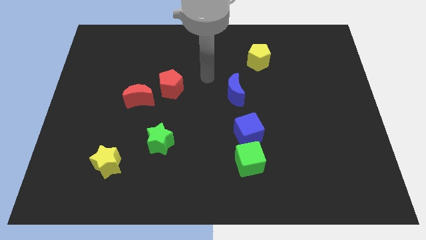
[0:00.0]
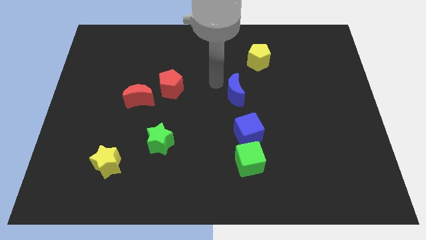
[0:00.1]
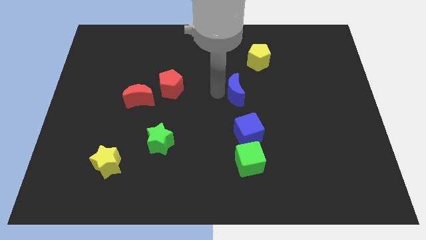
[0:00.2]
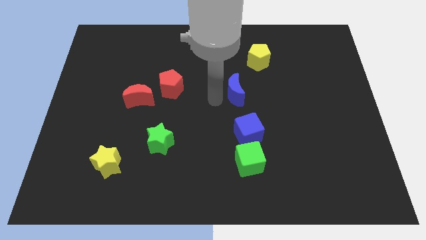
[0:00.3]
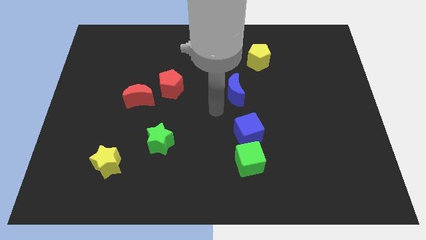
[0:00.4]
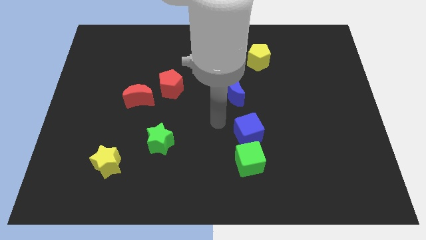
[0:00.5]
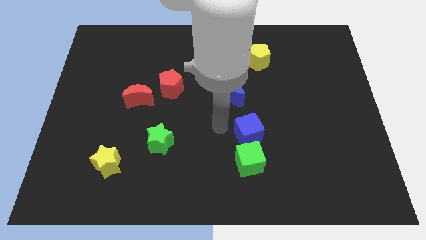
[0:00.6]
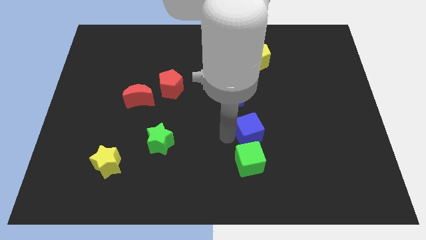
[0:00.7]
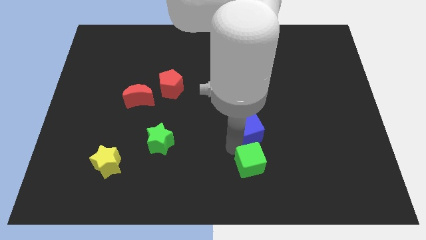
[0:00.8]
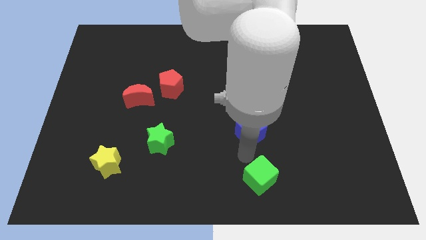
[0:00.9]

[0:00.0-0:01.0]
move the blue cube away from the green cube

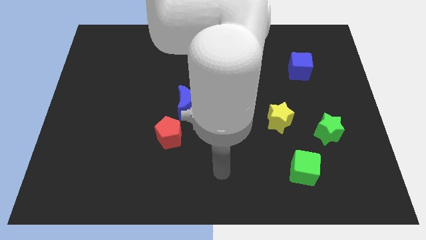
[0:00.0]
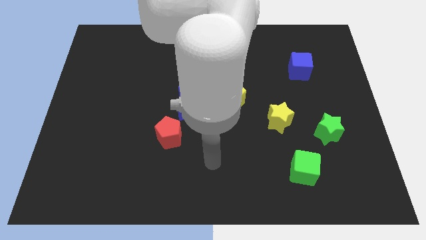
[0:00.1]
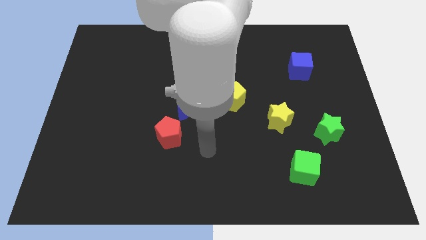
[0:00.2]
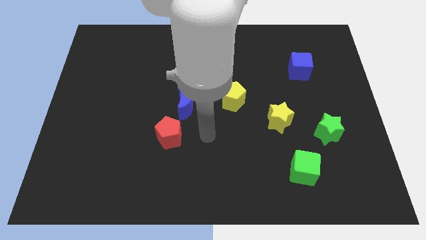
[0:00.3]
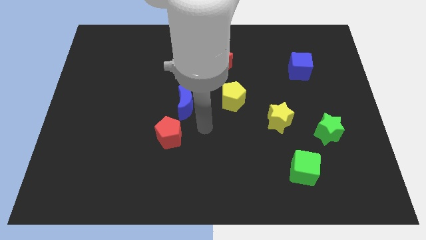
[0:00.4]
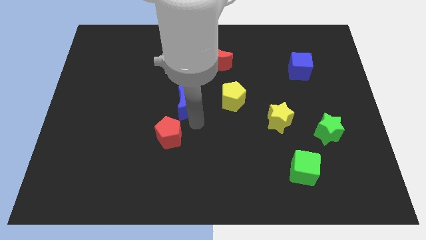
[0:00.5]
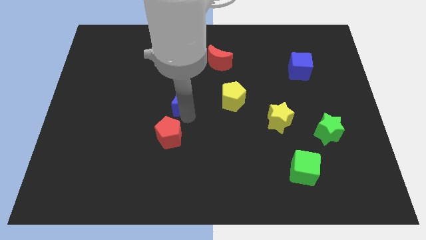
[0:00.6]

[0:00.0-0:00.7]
separate the red pentagon from the blue moon

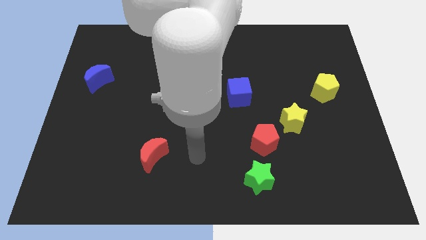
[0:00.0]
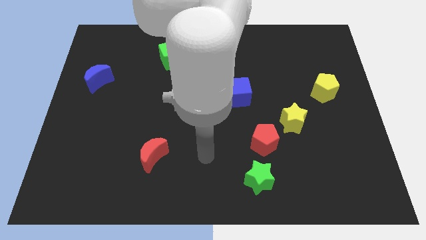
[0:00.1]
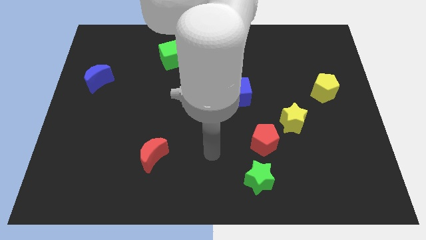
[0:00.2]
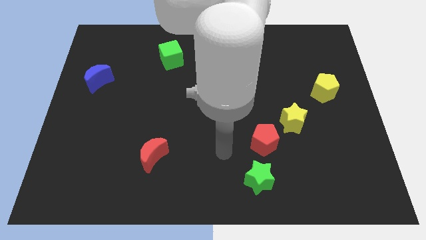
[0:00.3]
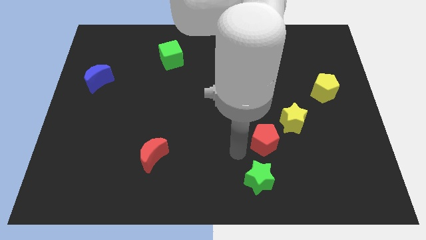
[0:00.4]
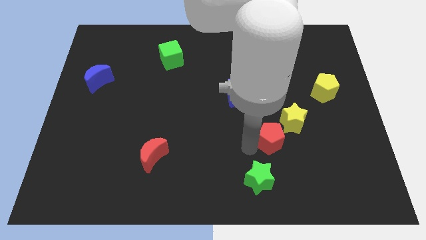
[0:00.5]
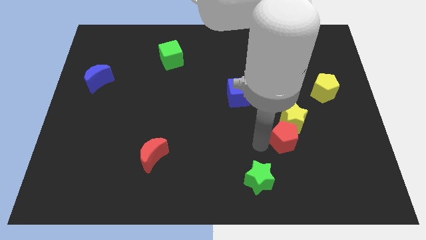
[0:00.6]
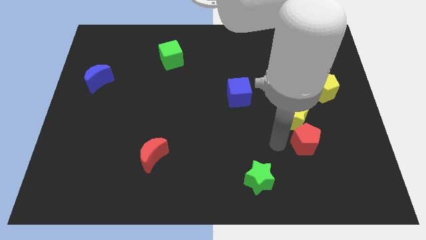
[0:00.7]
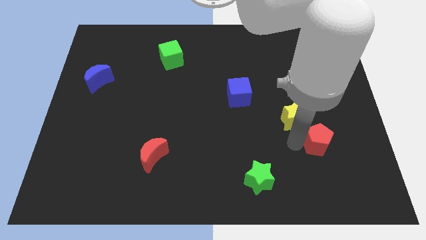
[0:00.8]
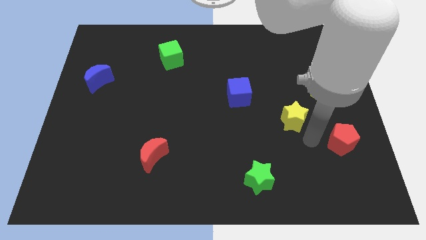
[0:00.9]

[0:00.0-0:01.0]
separate the yellow star from the red pentagon

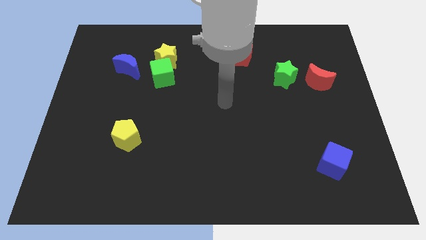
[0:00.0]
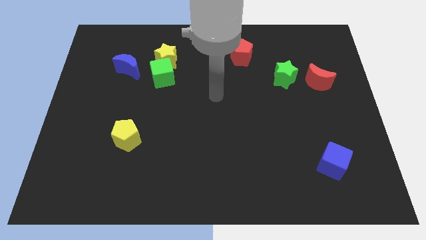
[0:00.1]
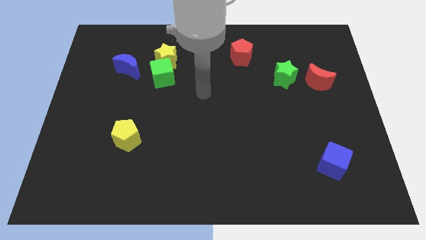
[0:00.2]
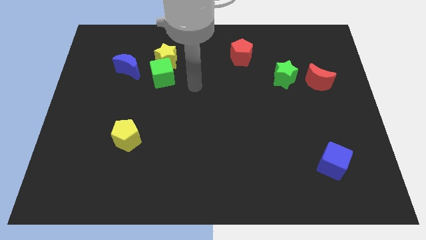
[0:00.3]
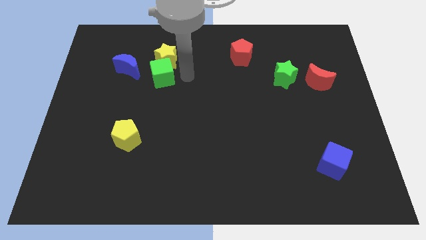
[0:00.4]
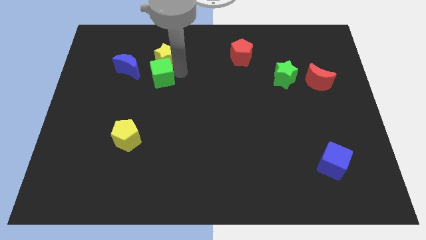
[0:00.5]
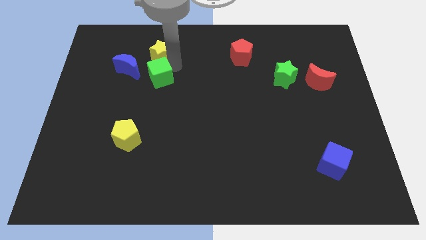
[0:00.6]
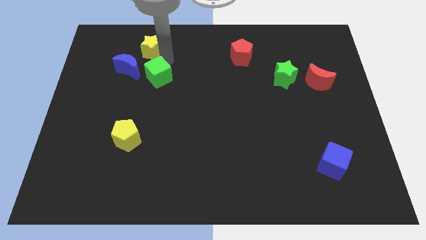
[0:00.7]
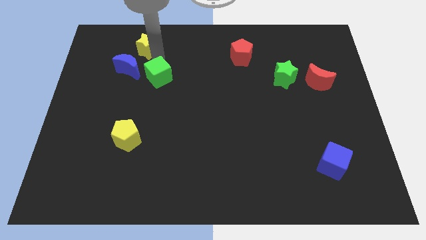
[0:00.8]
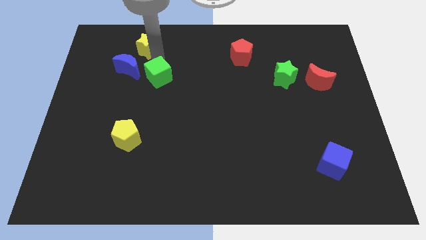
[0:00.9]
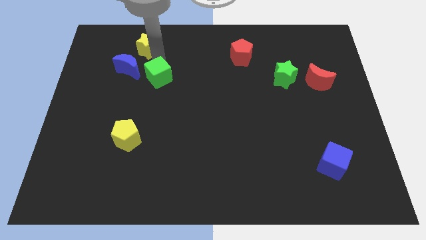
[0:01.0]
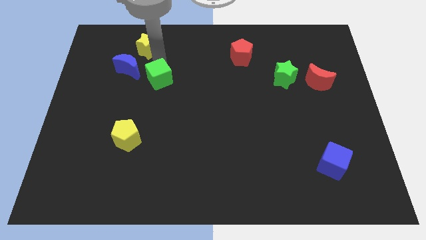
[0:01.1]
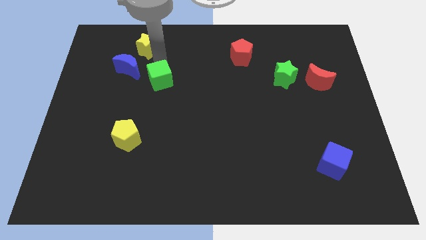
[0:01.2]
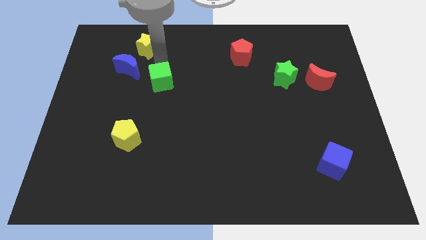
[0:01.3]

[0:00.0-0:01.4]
move the green cube away from the yellow star and blue moon

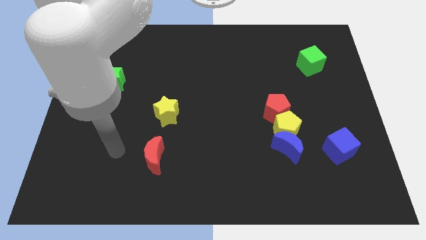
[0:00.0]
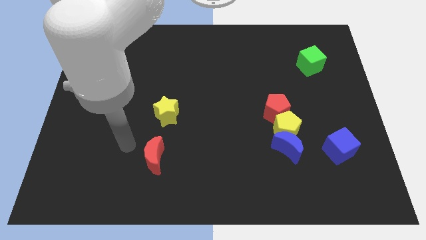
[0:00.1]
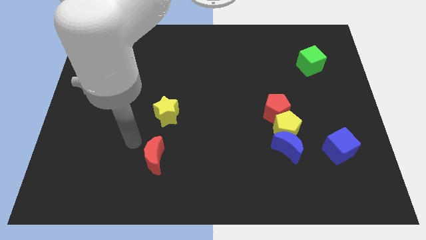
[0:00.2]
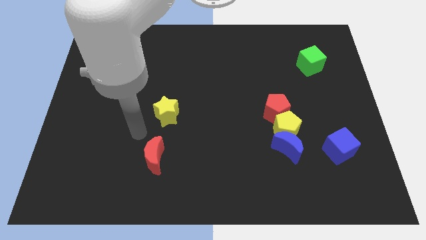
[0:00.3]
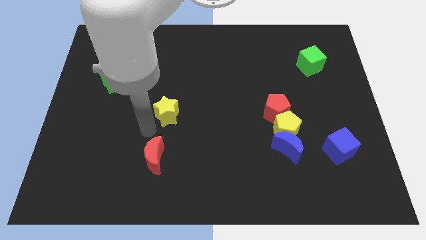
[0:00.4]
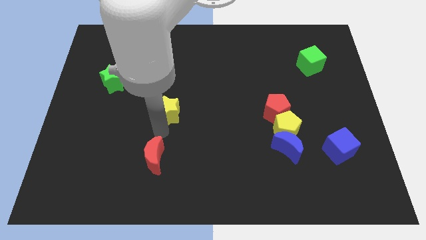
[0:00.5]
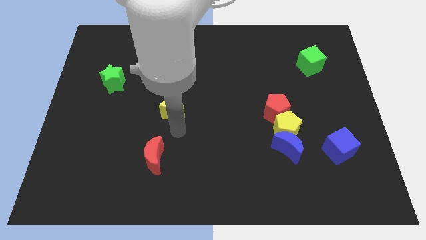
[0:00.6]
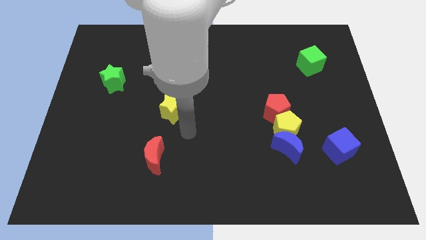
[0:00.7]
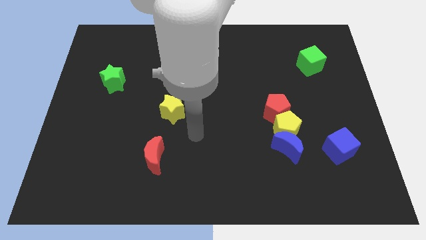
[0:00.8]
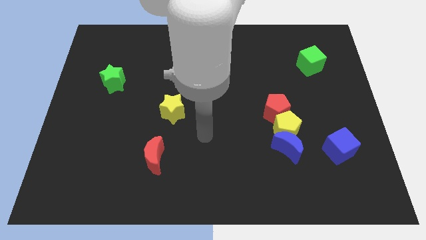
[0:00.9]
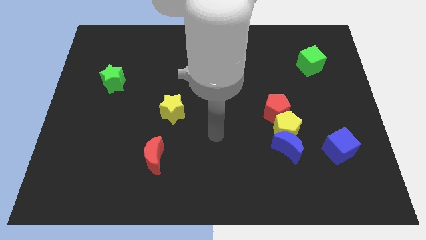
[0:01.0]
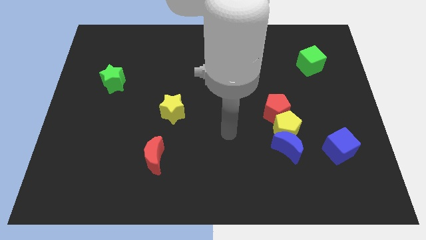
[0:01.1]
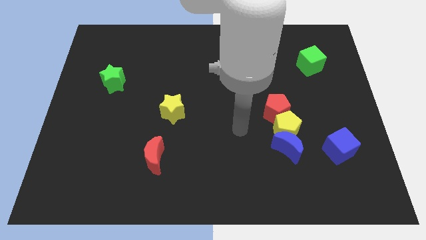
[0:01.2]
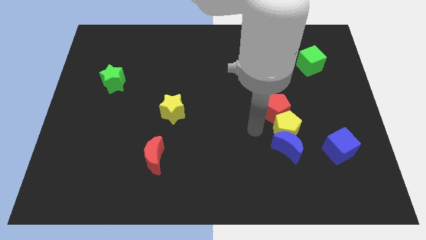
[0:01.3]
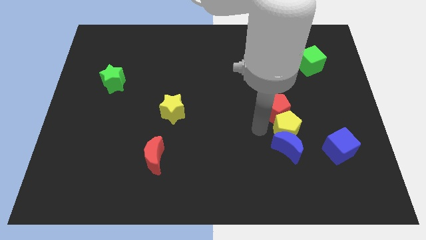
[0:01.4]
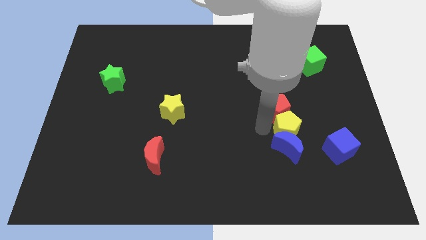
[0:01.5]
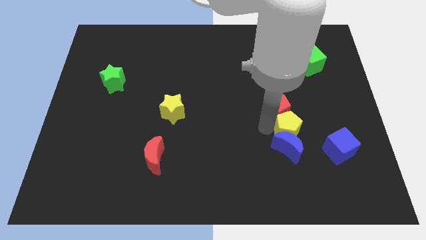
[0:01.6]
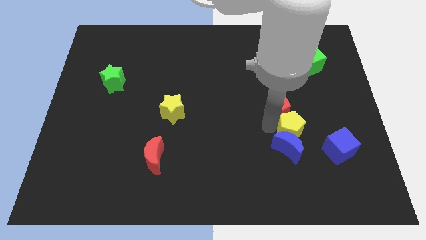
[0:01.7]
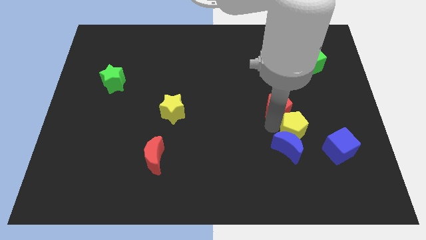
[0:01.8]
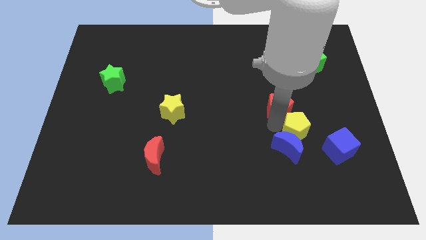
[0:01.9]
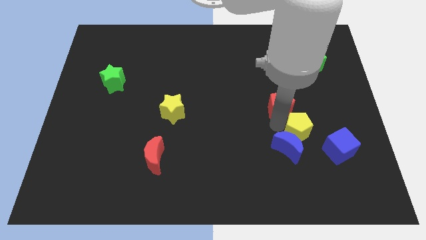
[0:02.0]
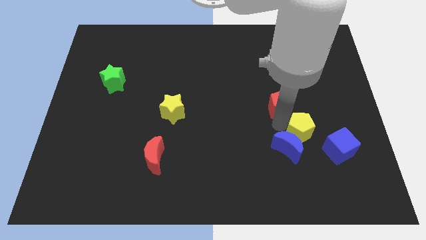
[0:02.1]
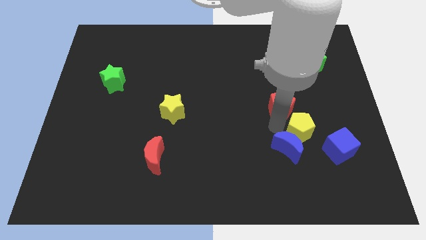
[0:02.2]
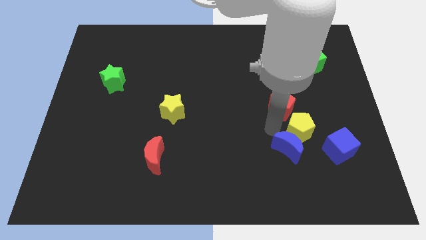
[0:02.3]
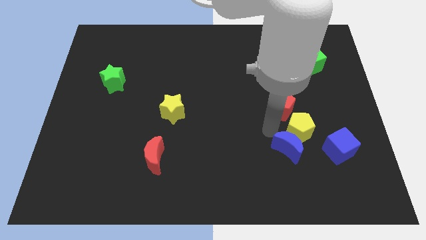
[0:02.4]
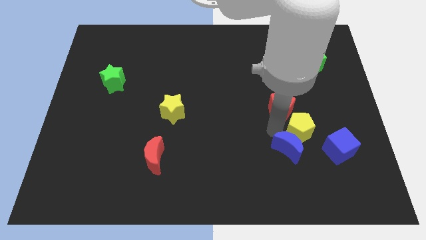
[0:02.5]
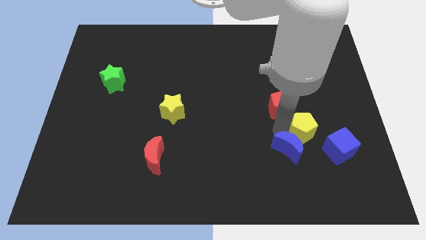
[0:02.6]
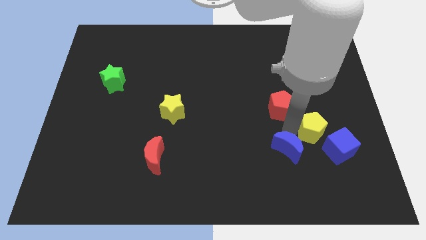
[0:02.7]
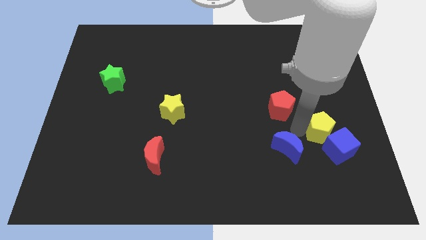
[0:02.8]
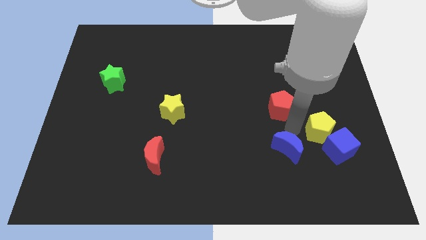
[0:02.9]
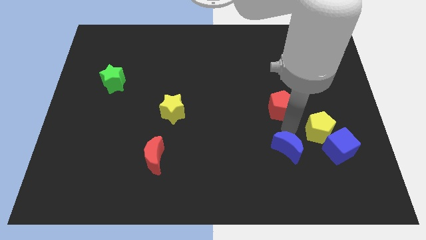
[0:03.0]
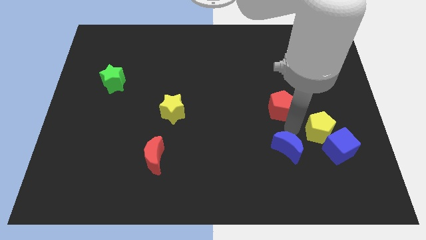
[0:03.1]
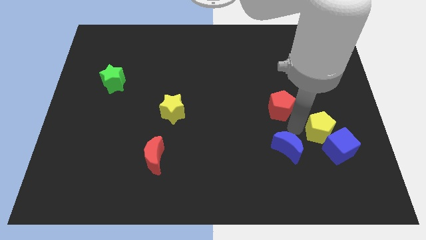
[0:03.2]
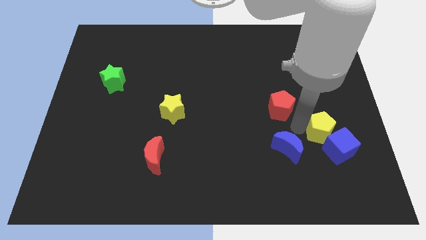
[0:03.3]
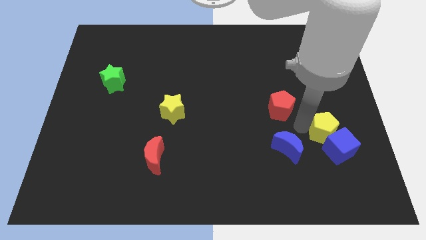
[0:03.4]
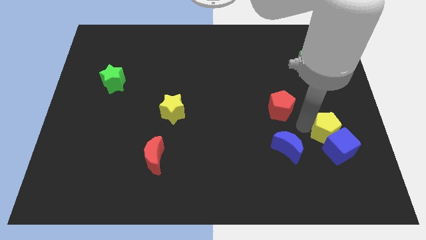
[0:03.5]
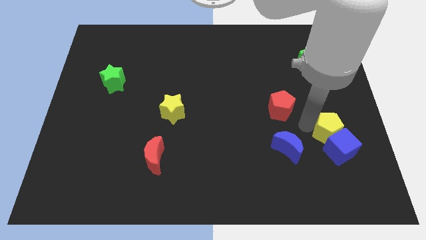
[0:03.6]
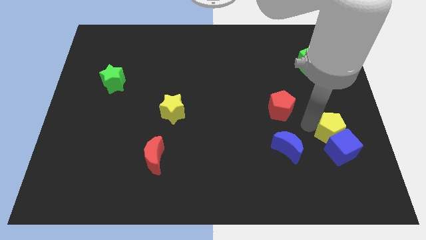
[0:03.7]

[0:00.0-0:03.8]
move the yellow pentagon away from the blue moon and red pentagon

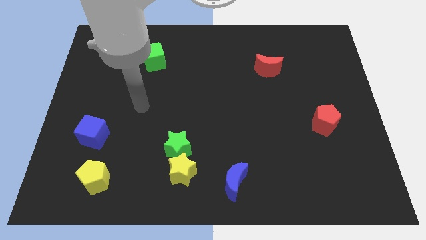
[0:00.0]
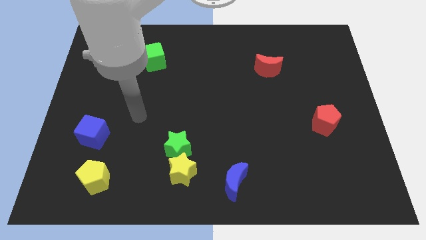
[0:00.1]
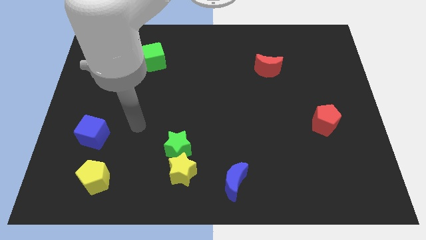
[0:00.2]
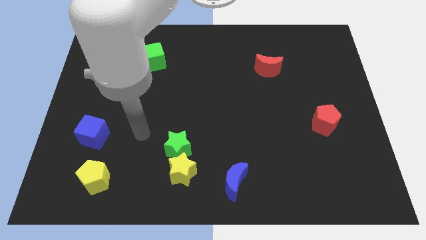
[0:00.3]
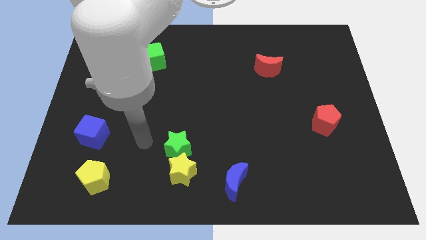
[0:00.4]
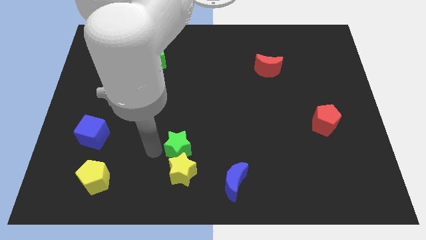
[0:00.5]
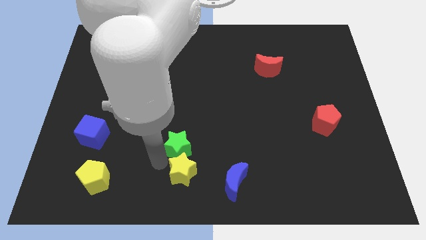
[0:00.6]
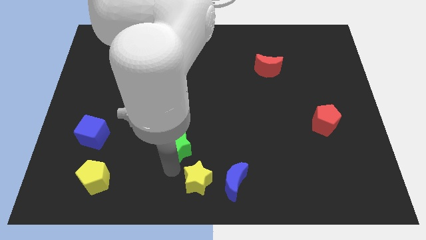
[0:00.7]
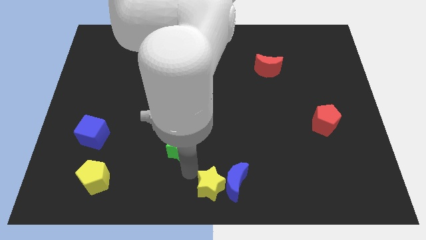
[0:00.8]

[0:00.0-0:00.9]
pull the green star apart from the yellow star

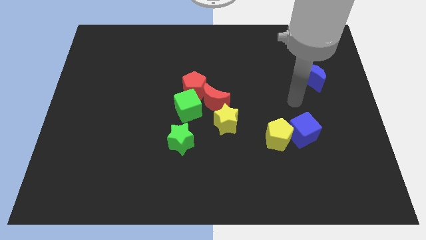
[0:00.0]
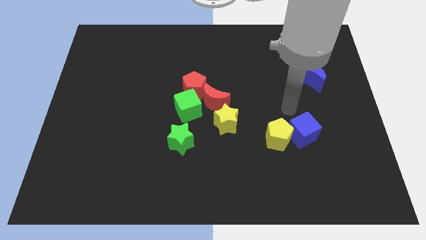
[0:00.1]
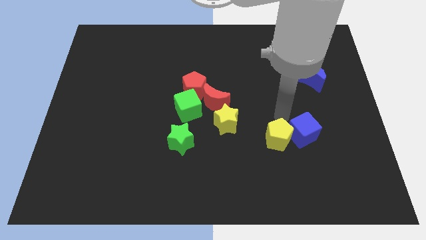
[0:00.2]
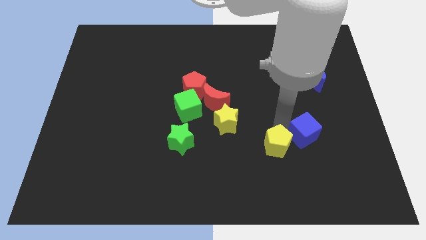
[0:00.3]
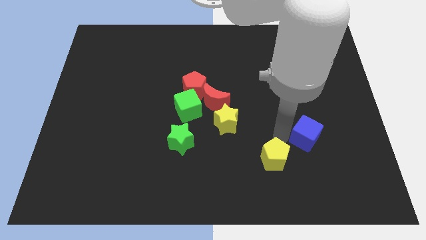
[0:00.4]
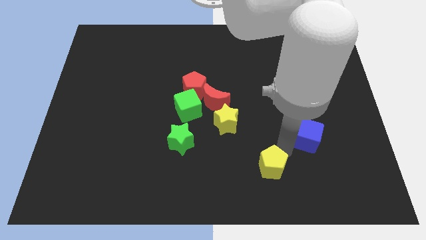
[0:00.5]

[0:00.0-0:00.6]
separate the blue cube from the yellow pentagon
